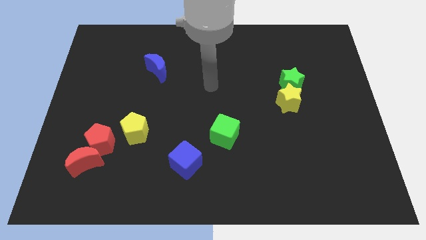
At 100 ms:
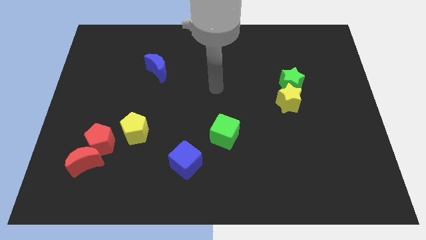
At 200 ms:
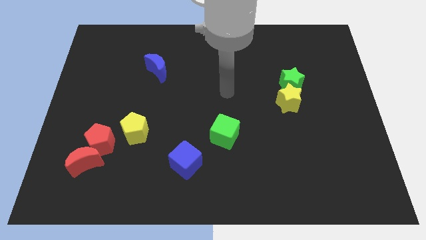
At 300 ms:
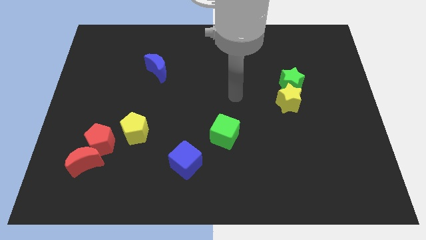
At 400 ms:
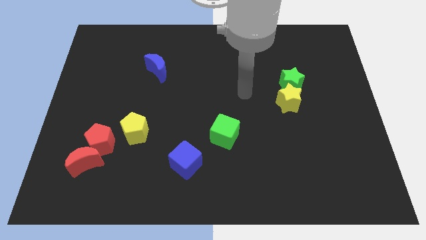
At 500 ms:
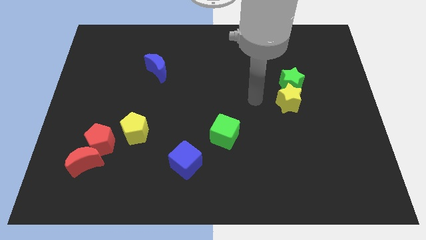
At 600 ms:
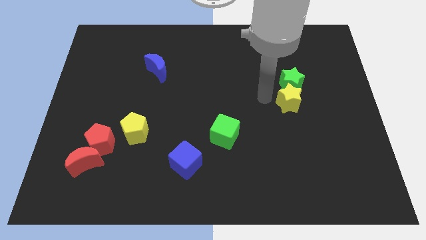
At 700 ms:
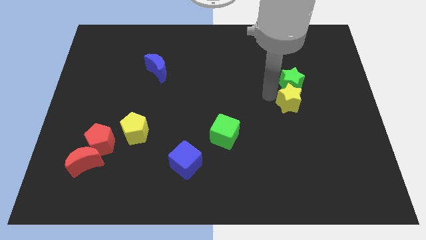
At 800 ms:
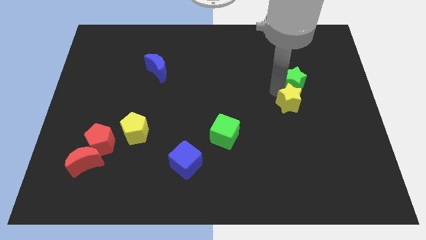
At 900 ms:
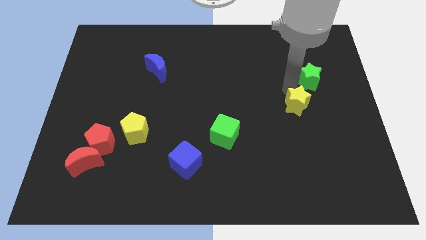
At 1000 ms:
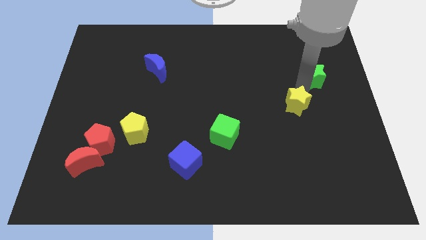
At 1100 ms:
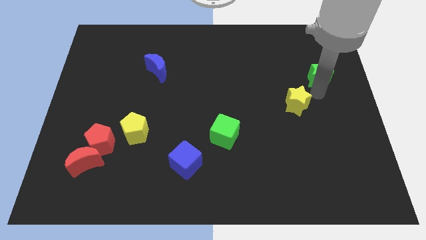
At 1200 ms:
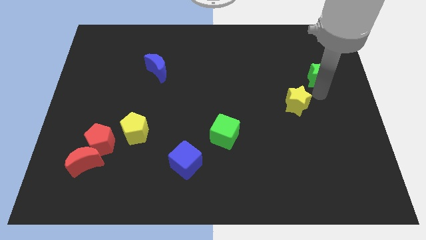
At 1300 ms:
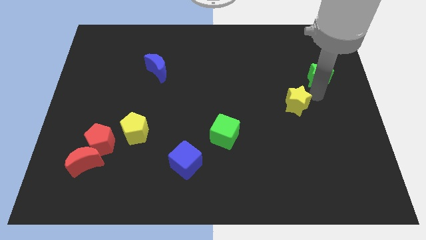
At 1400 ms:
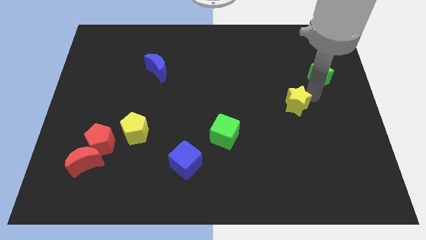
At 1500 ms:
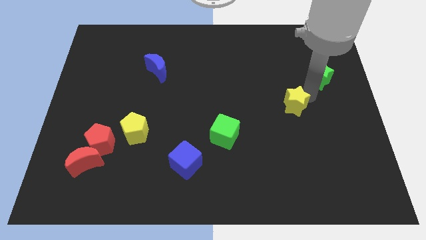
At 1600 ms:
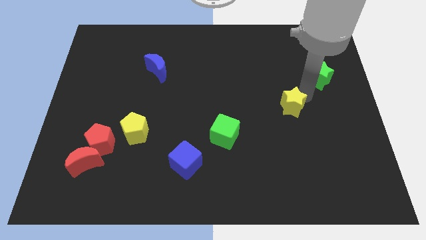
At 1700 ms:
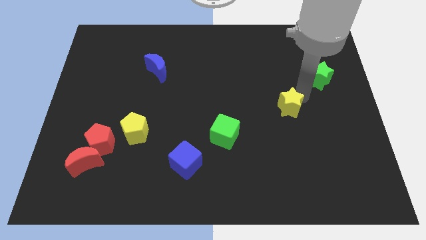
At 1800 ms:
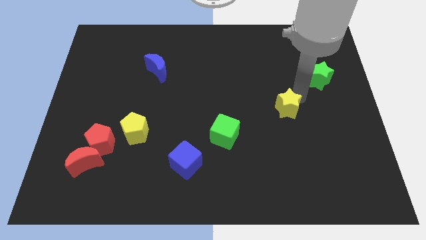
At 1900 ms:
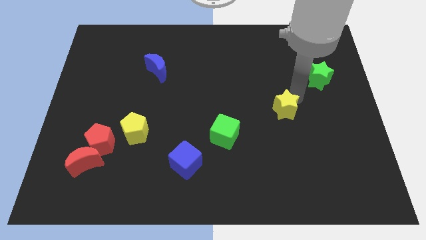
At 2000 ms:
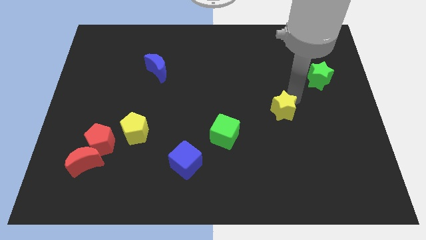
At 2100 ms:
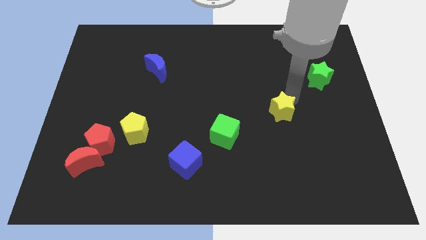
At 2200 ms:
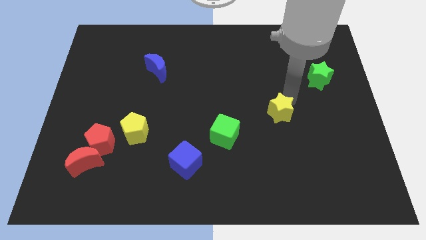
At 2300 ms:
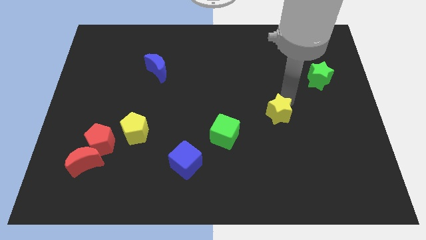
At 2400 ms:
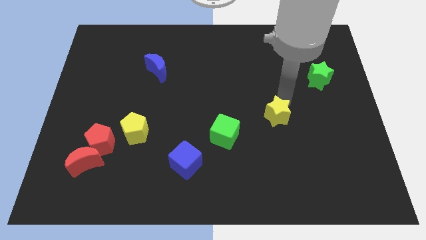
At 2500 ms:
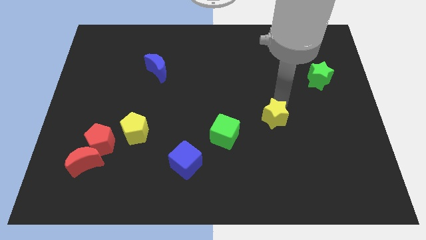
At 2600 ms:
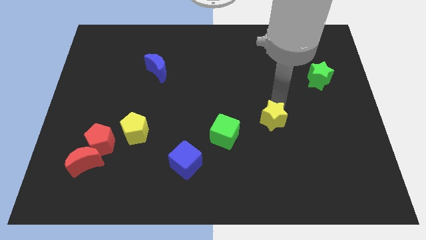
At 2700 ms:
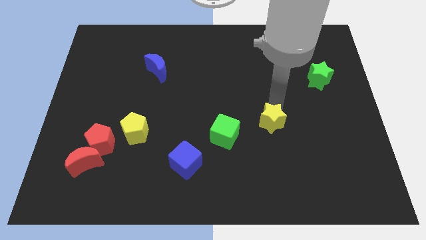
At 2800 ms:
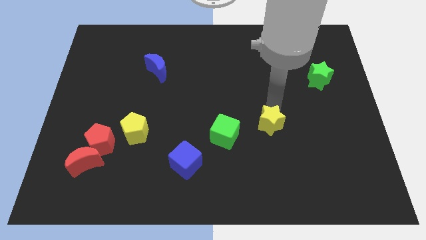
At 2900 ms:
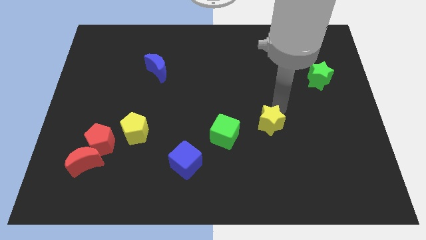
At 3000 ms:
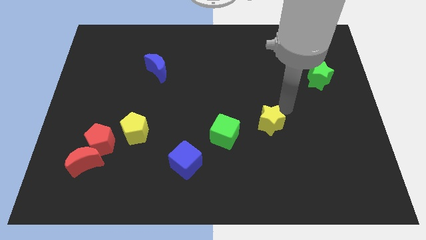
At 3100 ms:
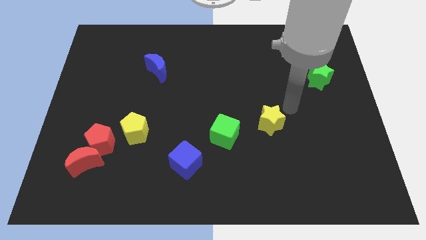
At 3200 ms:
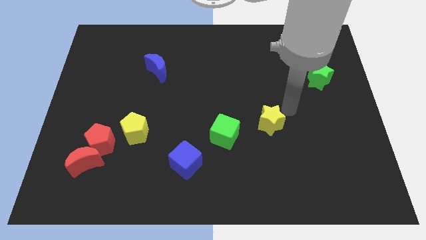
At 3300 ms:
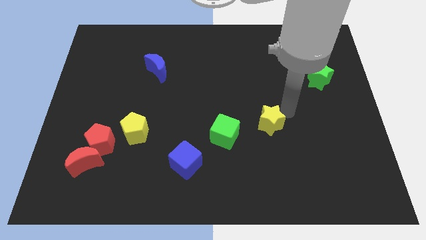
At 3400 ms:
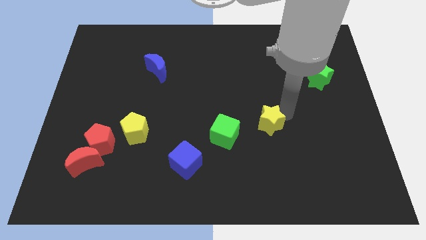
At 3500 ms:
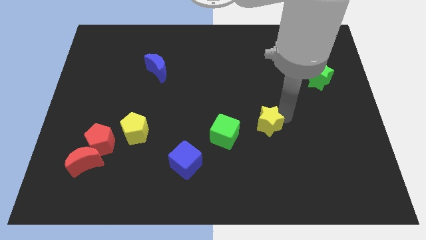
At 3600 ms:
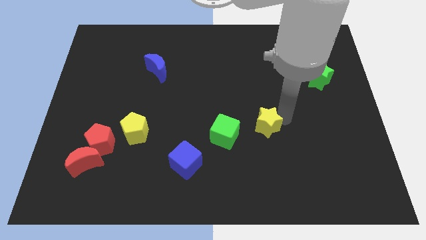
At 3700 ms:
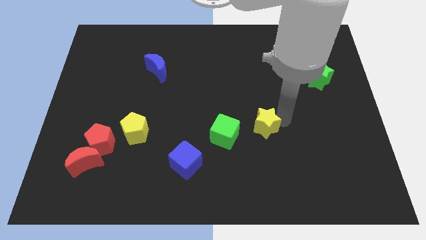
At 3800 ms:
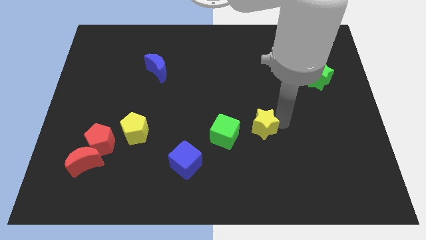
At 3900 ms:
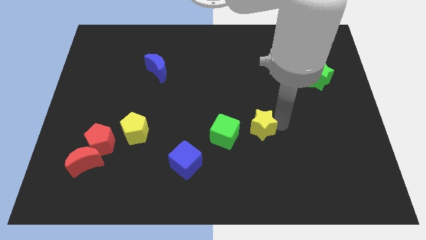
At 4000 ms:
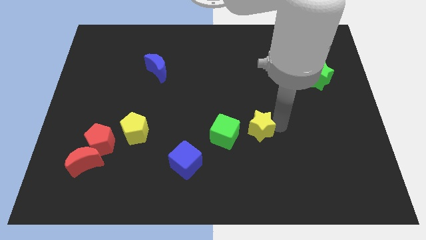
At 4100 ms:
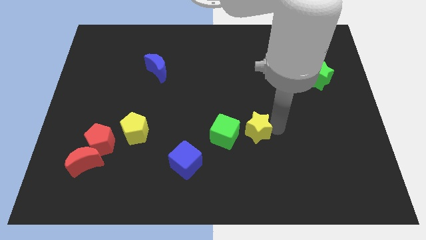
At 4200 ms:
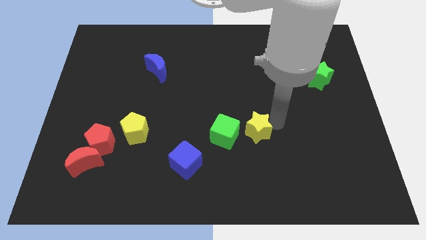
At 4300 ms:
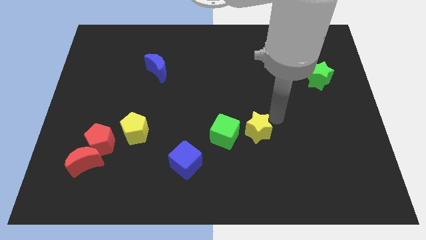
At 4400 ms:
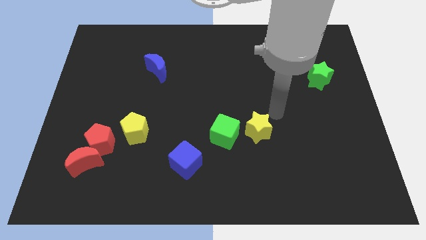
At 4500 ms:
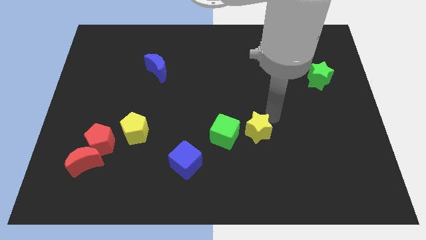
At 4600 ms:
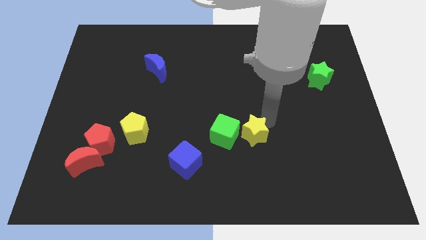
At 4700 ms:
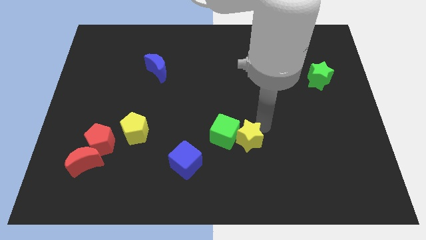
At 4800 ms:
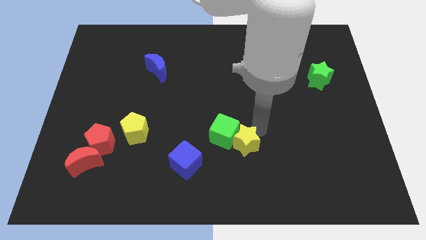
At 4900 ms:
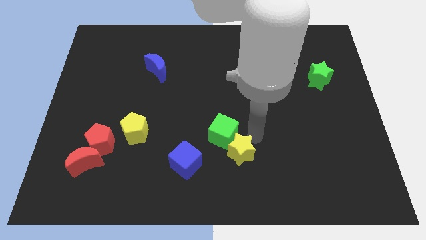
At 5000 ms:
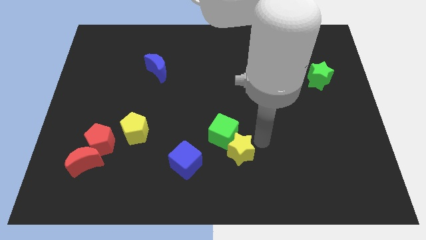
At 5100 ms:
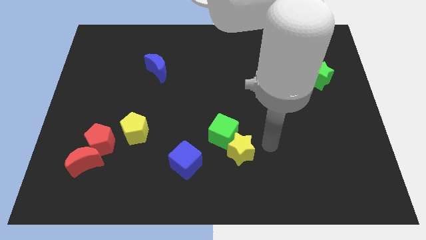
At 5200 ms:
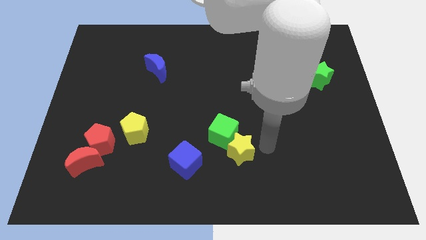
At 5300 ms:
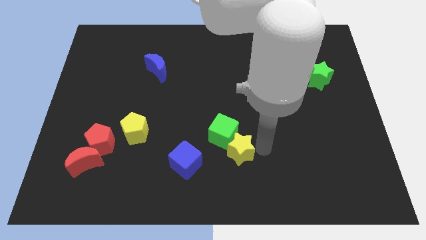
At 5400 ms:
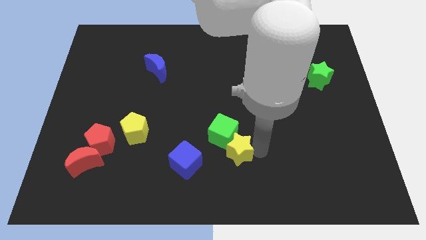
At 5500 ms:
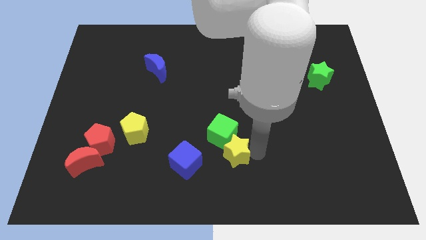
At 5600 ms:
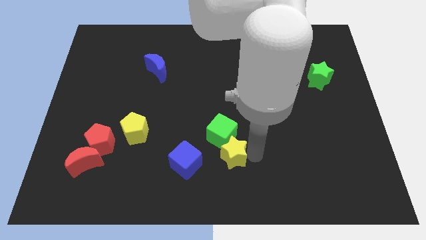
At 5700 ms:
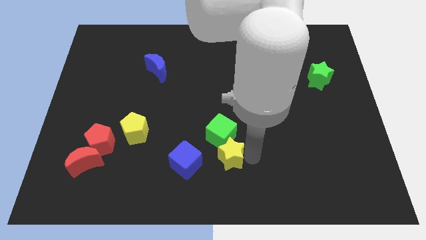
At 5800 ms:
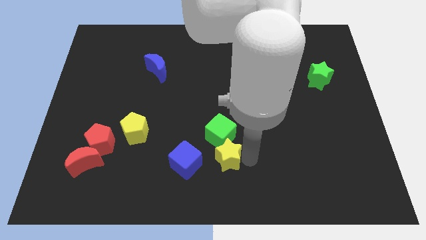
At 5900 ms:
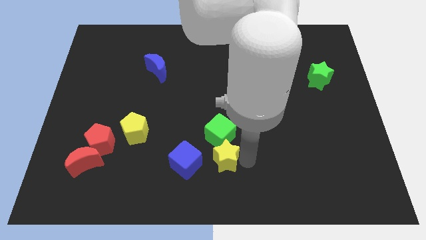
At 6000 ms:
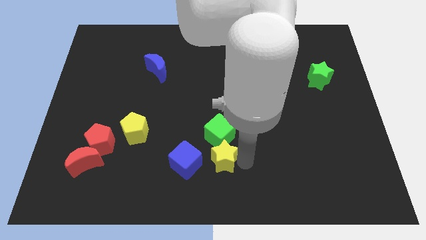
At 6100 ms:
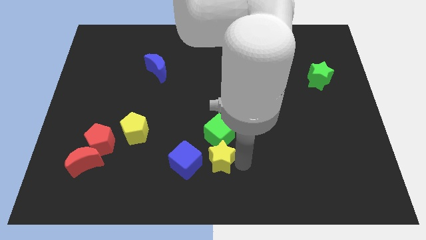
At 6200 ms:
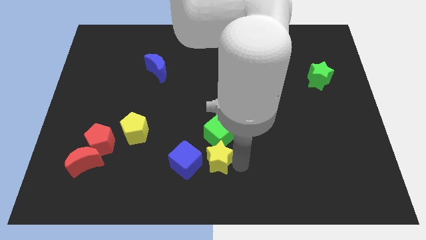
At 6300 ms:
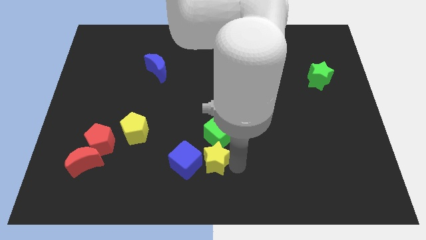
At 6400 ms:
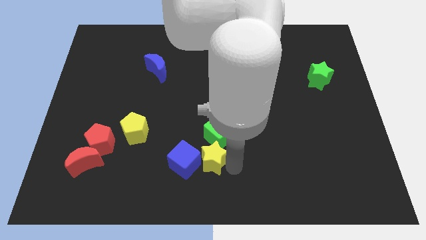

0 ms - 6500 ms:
push the yellow star next to the blue cube

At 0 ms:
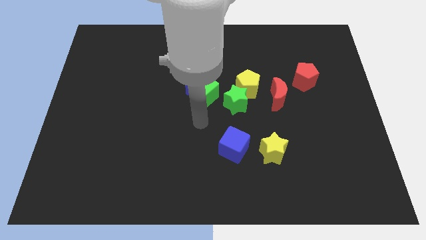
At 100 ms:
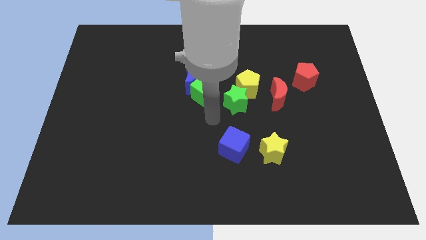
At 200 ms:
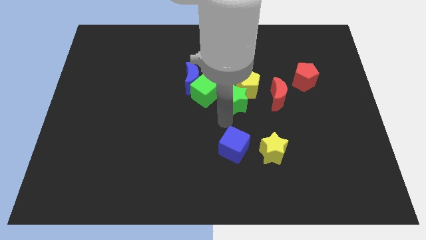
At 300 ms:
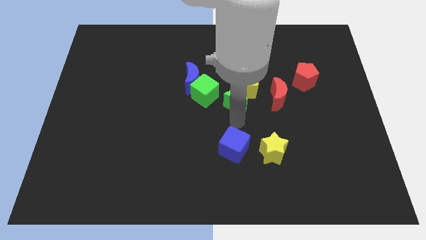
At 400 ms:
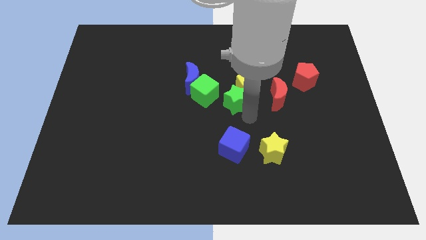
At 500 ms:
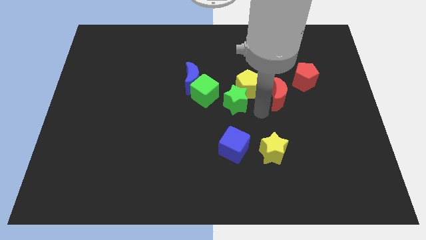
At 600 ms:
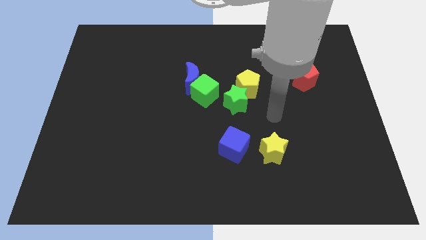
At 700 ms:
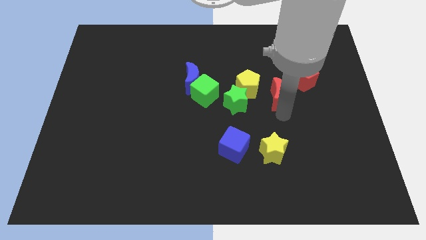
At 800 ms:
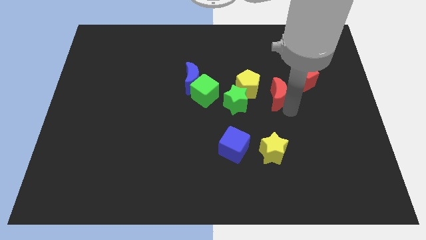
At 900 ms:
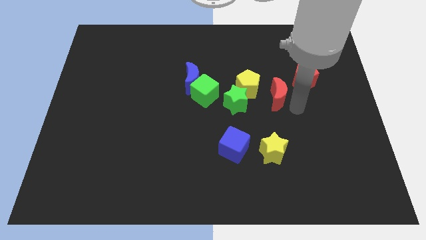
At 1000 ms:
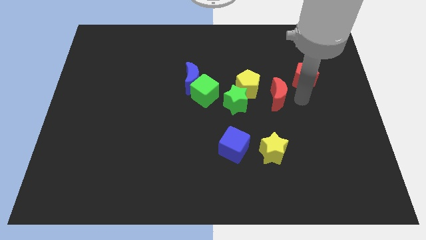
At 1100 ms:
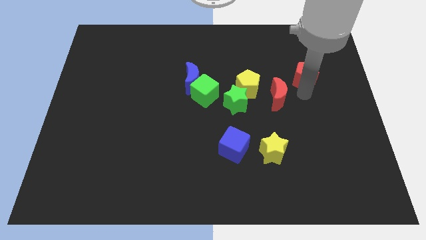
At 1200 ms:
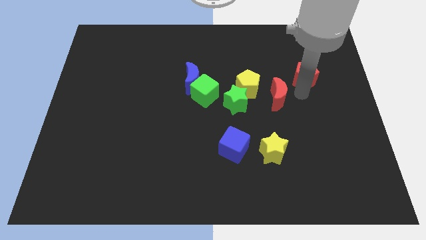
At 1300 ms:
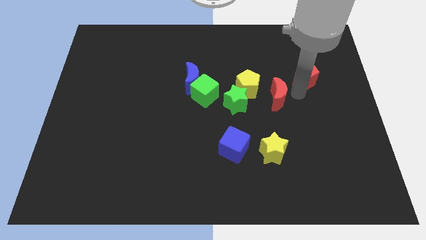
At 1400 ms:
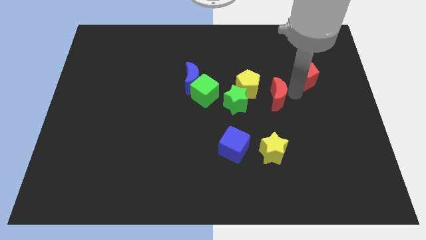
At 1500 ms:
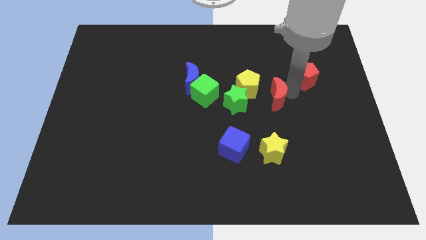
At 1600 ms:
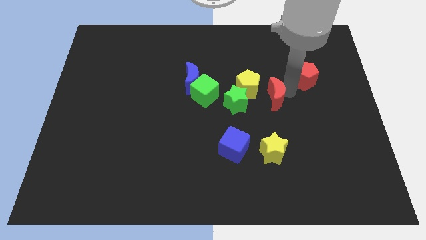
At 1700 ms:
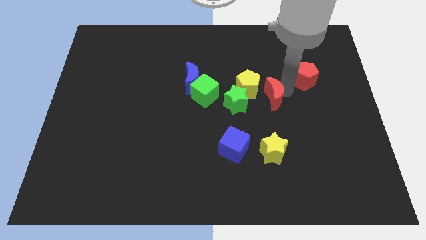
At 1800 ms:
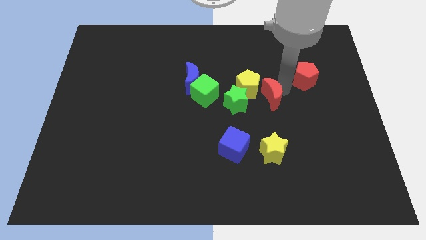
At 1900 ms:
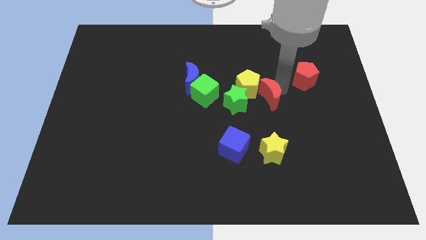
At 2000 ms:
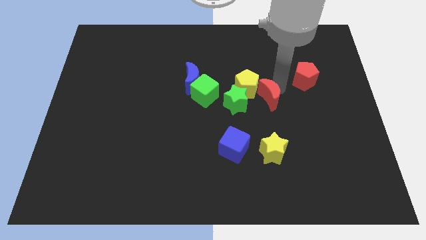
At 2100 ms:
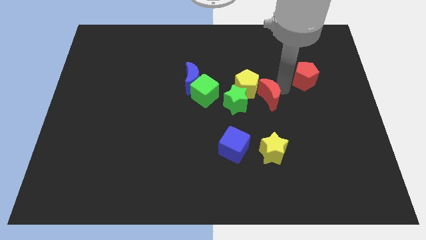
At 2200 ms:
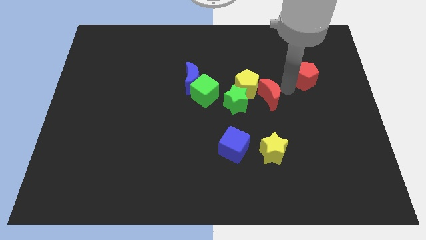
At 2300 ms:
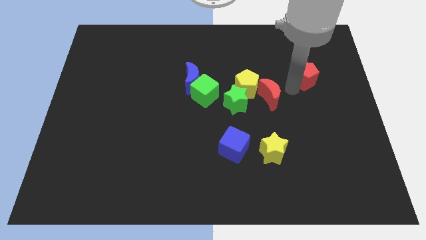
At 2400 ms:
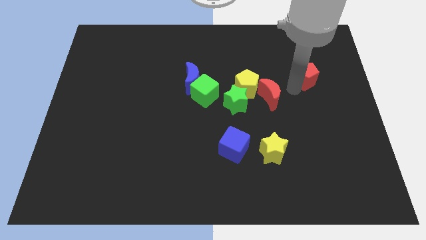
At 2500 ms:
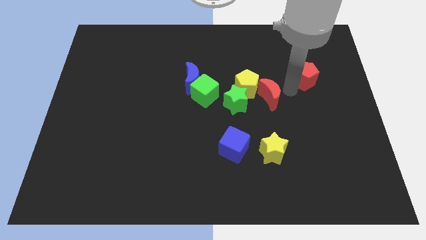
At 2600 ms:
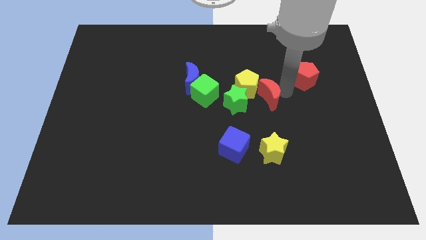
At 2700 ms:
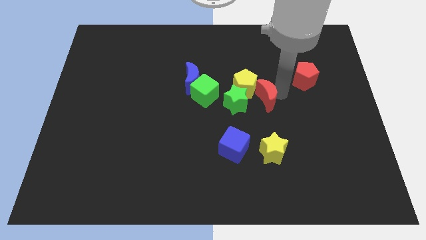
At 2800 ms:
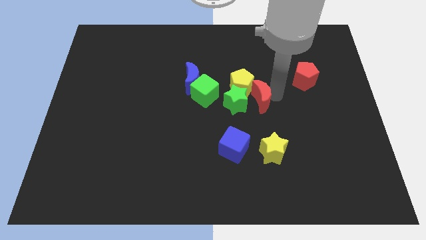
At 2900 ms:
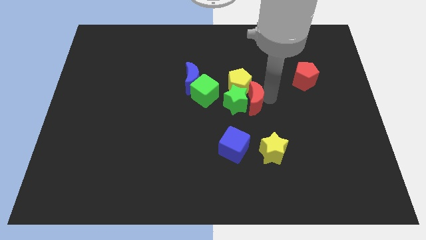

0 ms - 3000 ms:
push the red moon close to the green star
